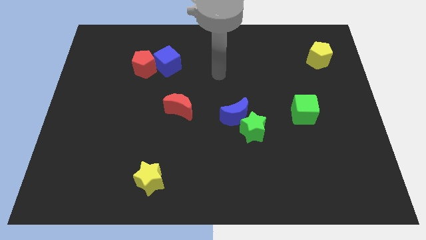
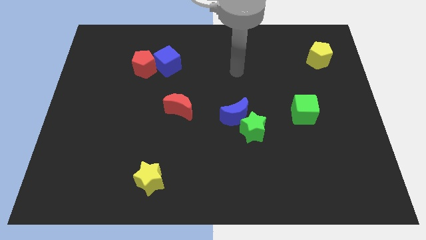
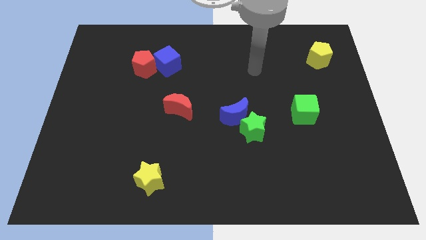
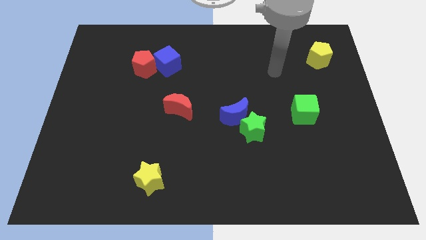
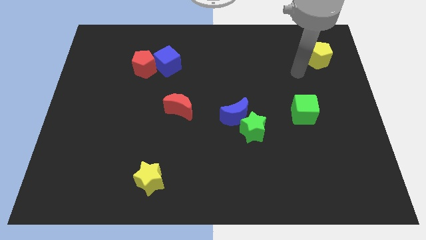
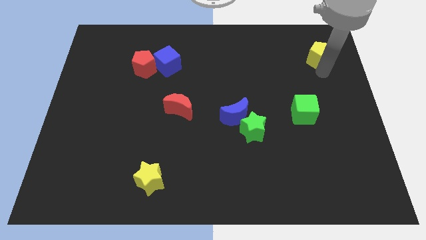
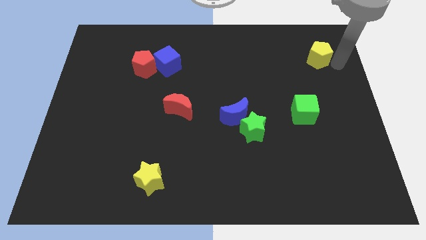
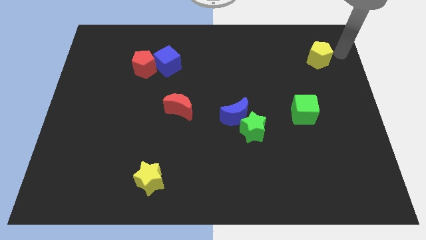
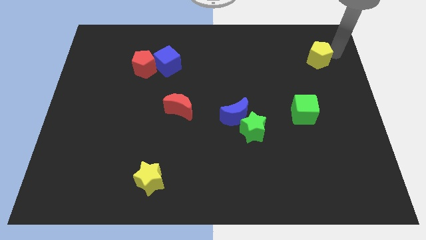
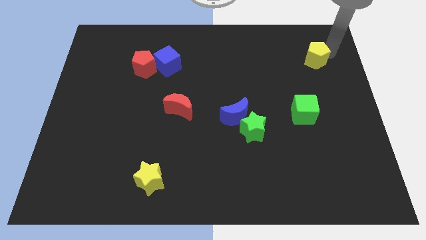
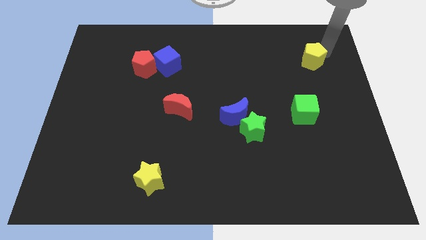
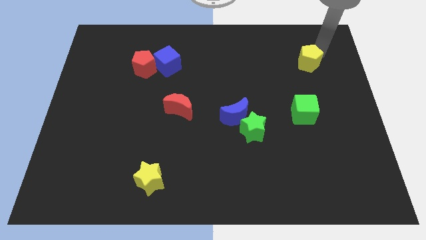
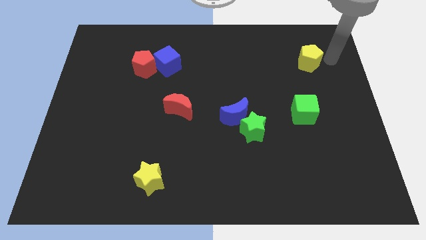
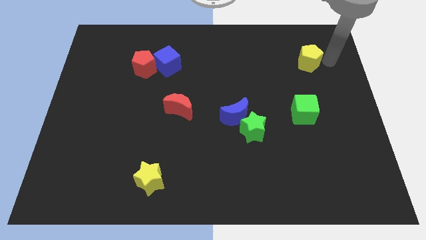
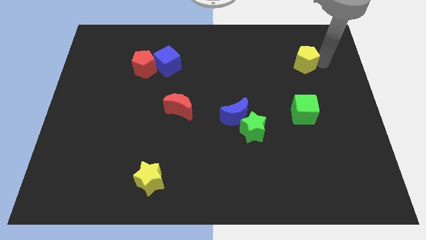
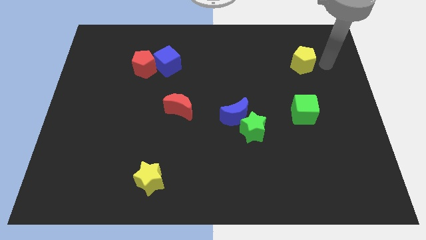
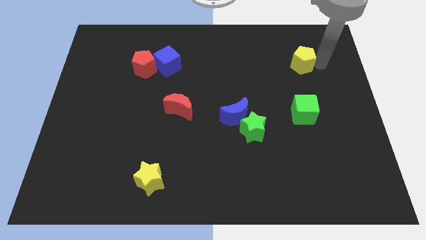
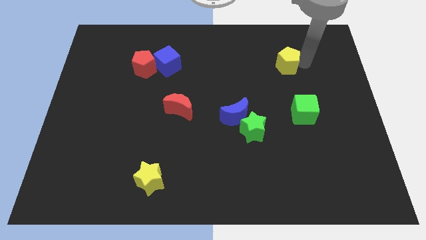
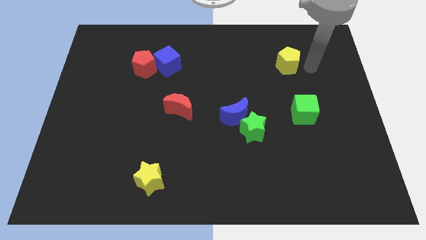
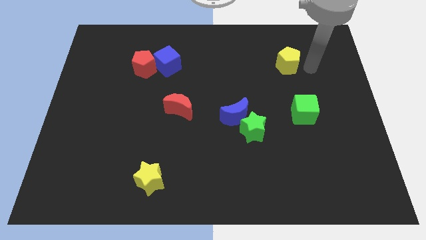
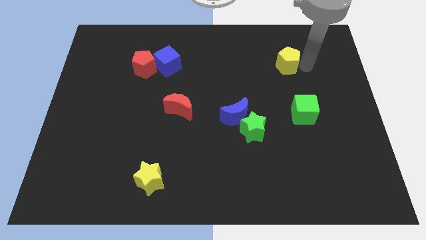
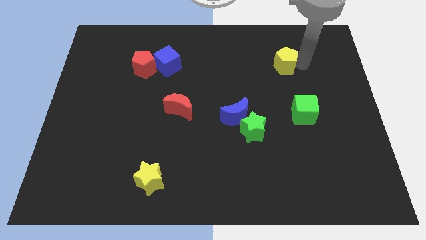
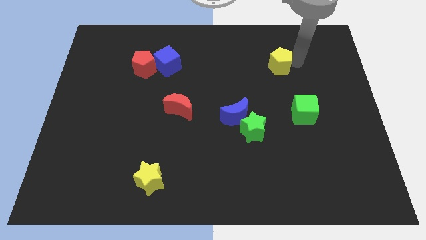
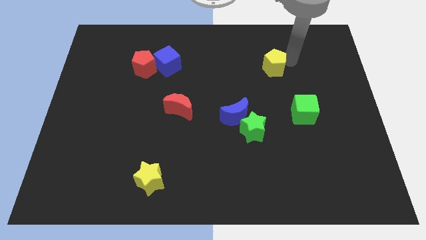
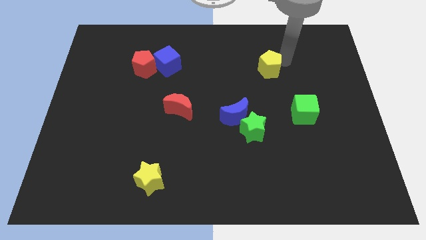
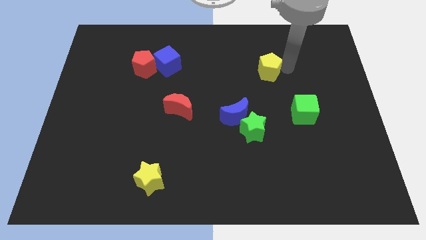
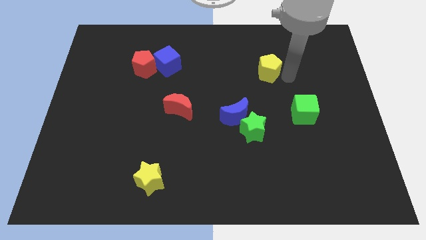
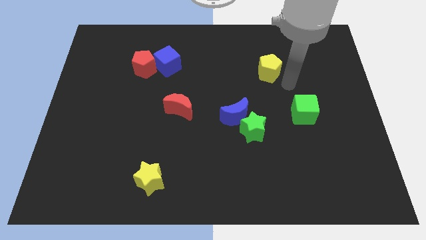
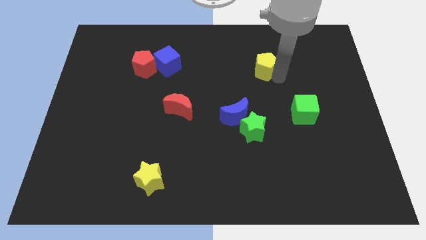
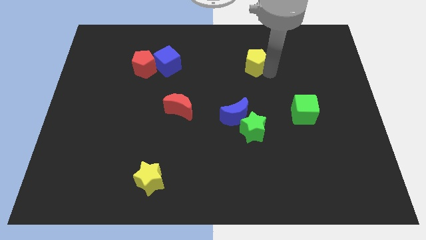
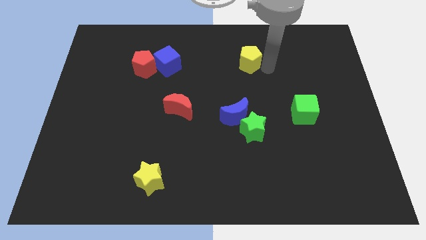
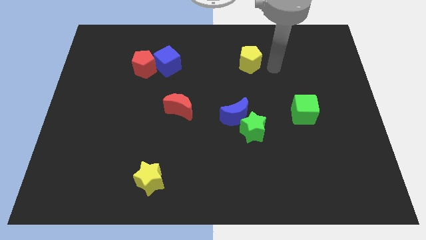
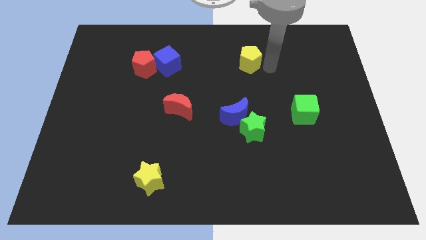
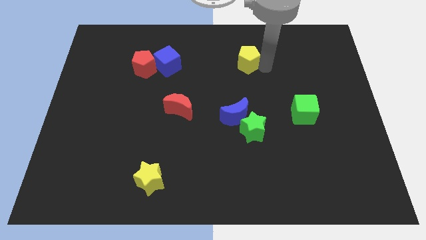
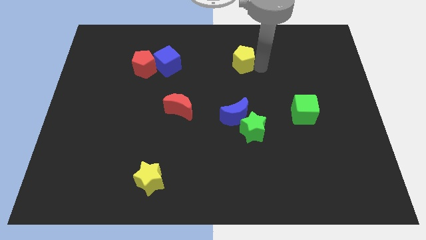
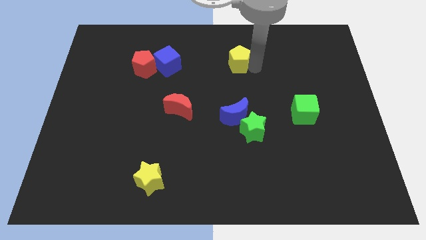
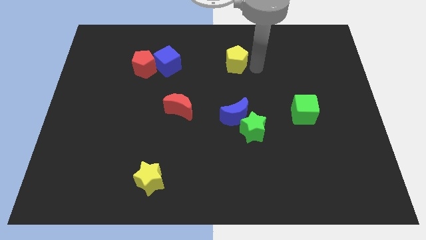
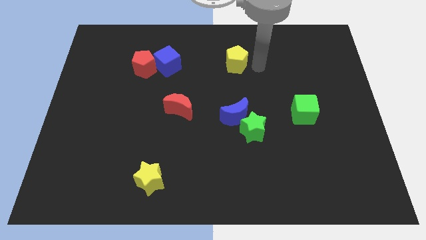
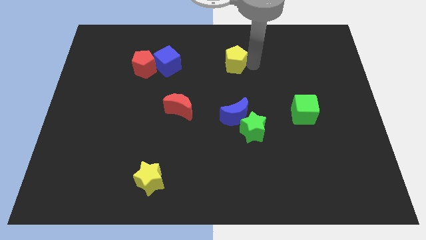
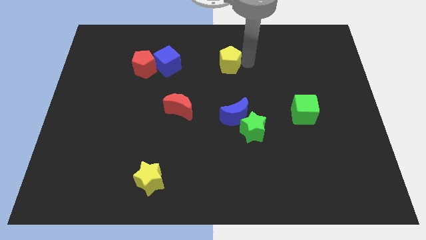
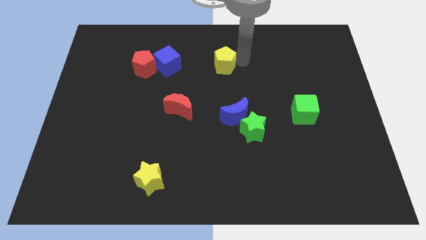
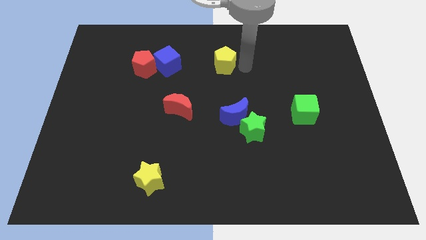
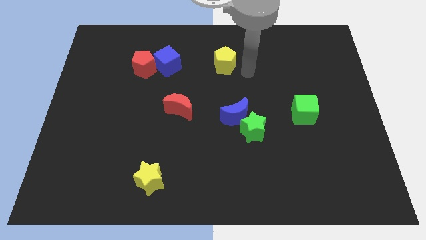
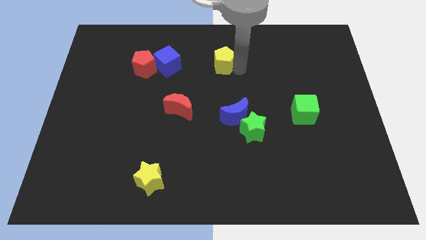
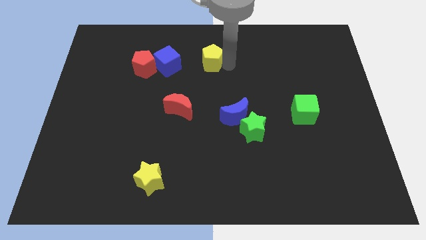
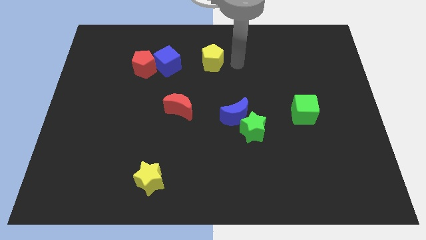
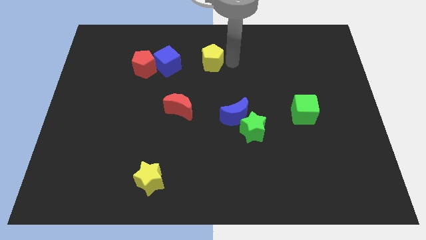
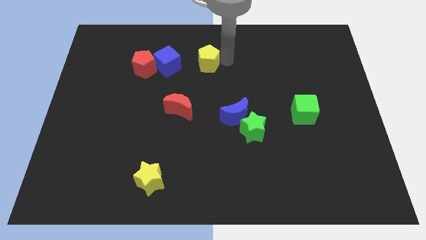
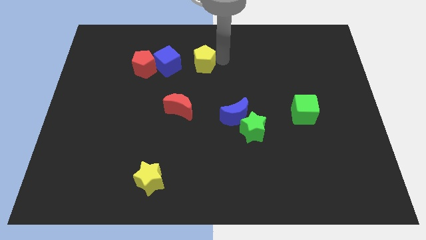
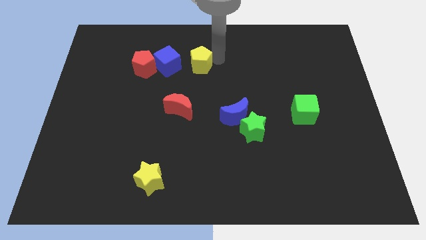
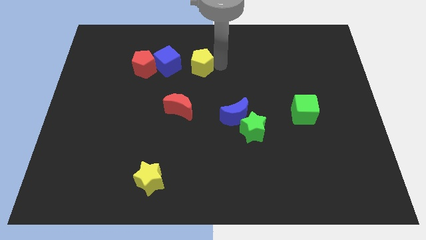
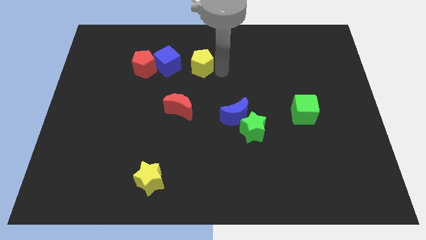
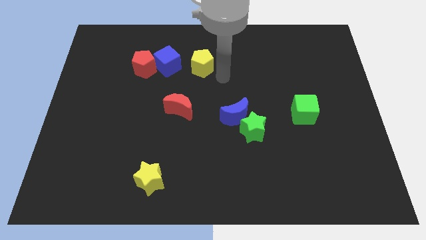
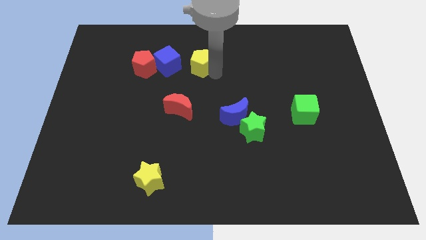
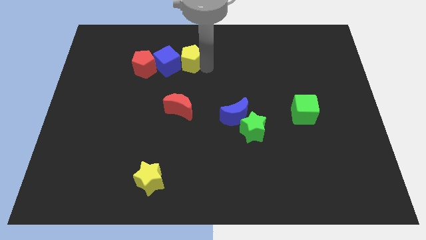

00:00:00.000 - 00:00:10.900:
slide the yellow pentagon to the blue cube

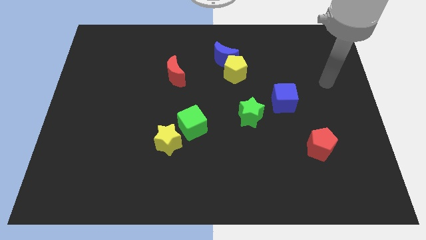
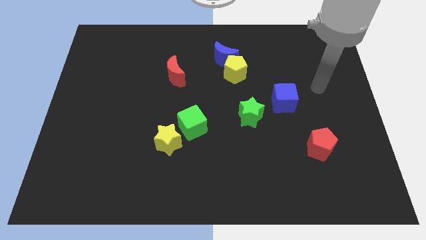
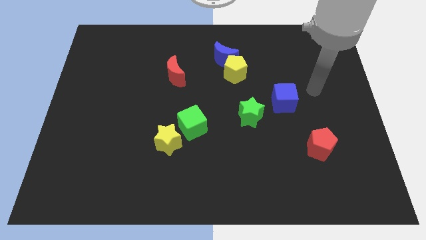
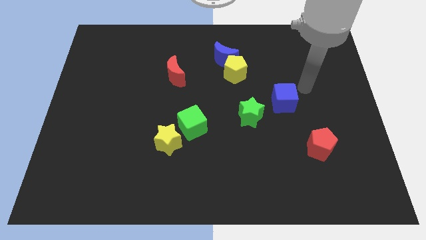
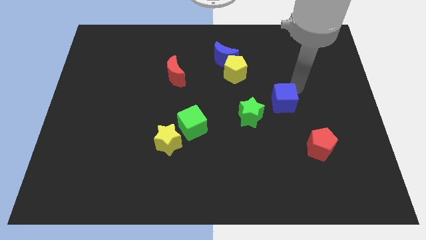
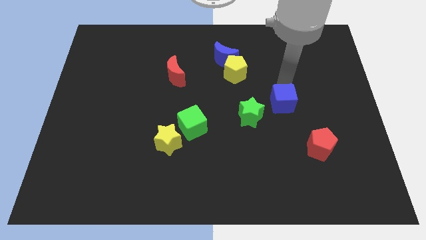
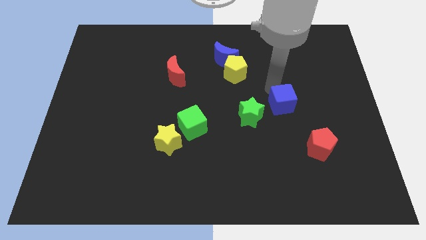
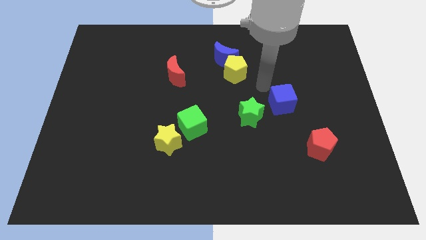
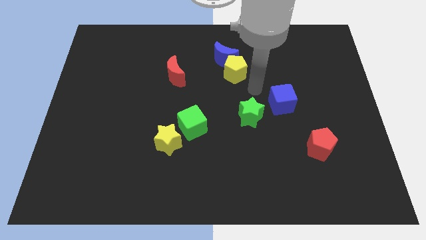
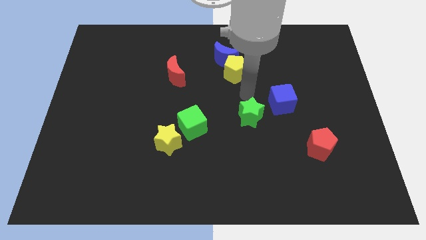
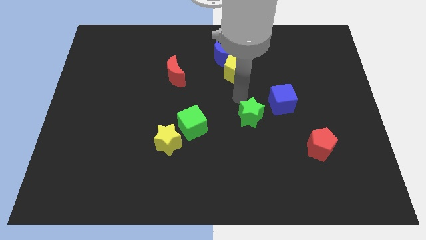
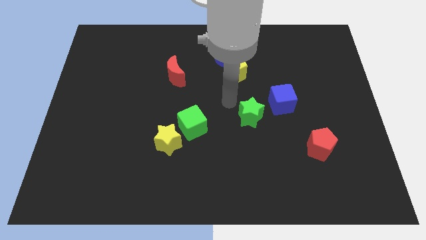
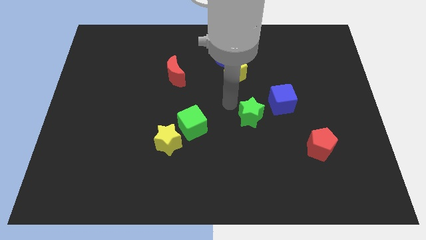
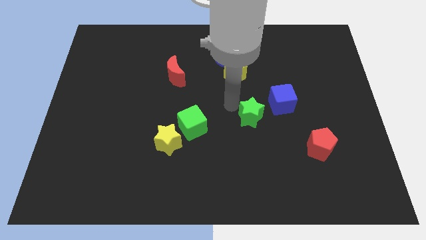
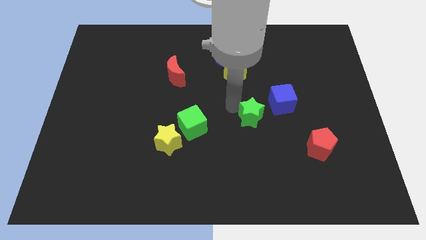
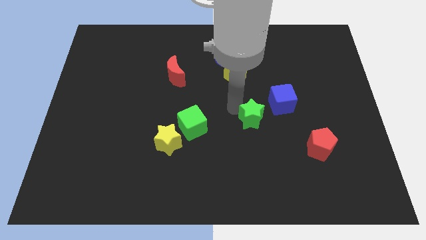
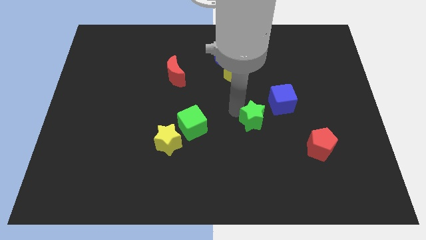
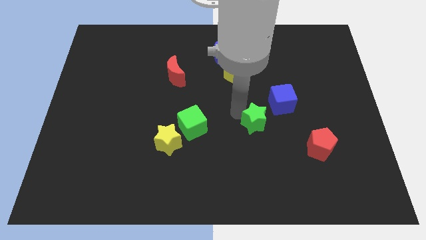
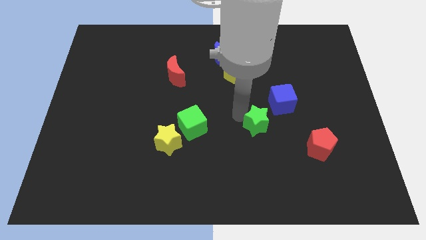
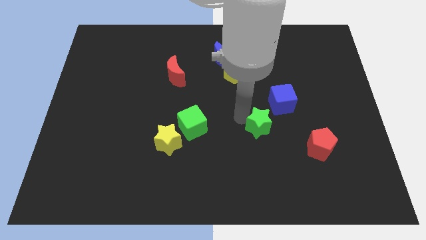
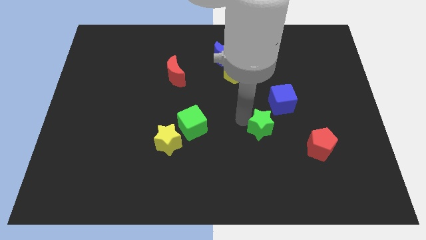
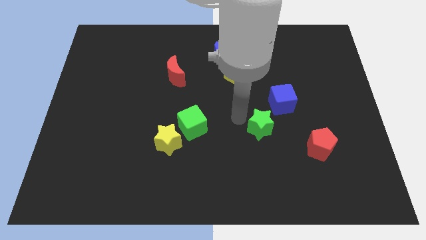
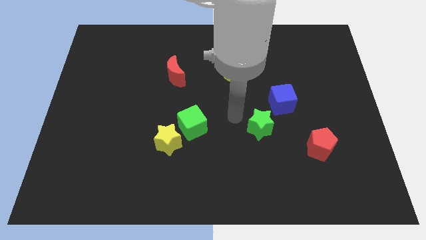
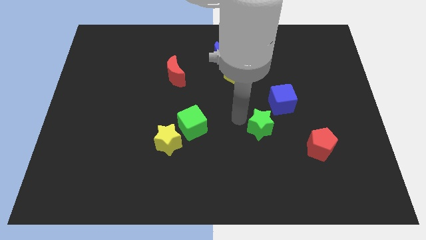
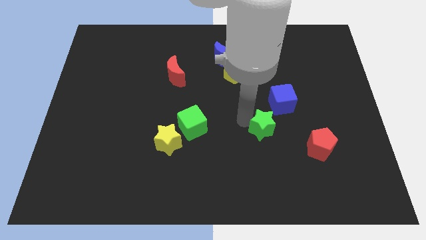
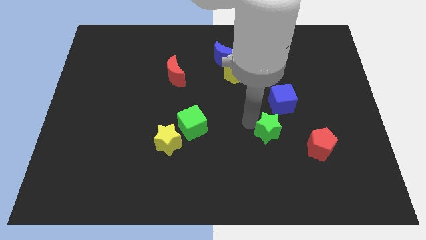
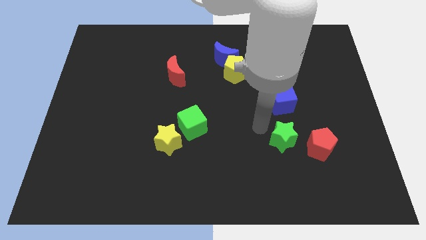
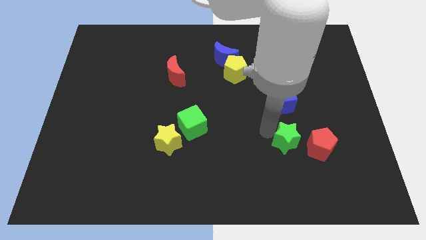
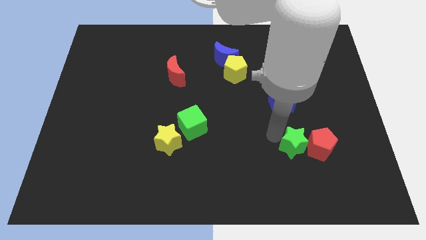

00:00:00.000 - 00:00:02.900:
slide the green star towards the red pentagon
